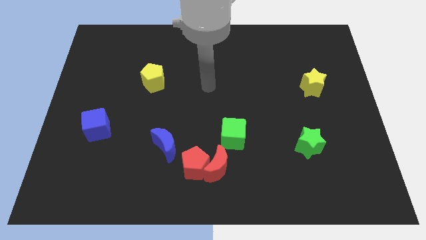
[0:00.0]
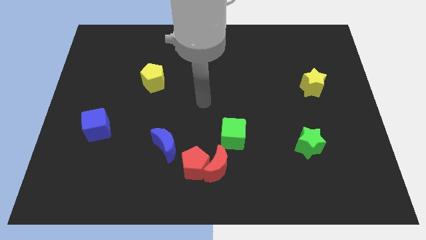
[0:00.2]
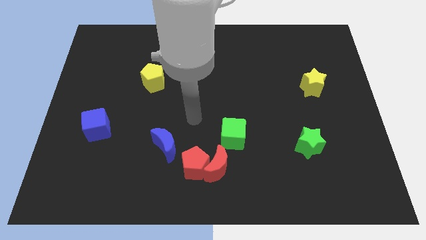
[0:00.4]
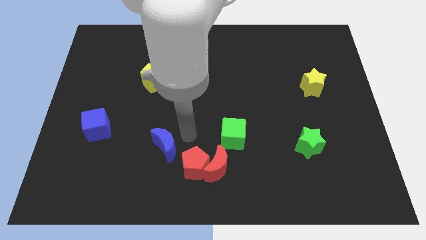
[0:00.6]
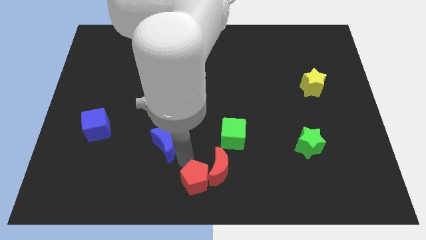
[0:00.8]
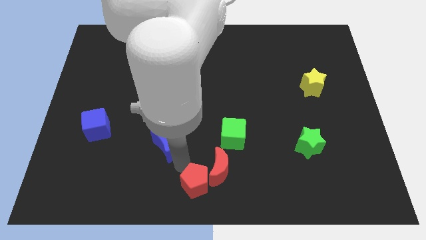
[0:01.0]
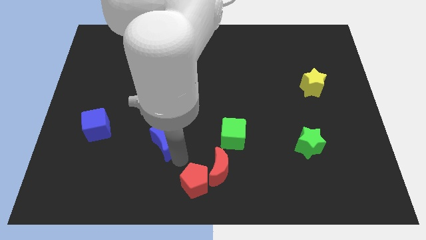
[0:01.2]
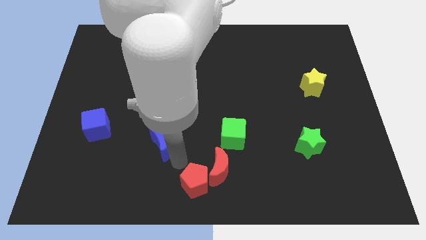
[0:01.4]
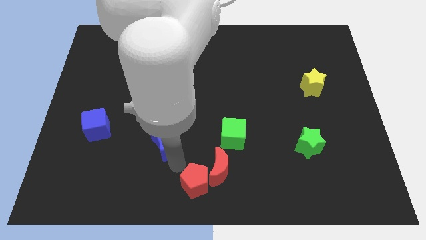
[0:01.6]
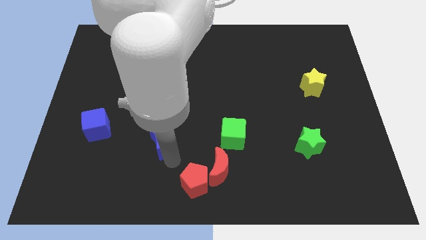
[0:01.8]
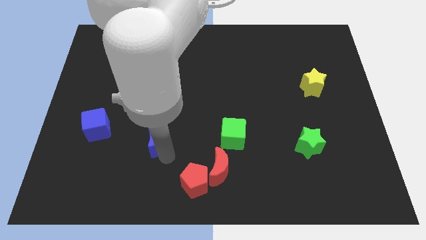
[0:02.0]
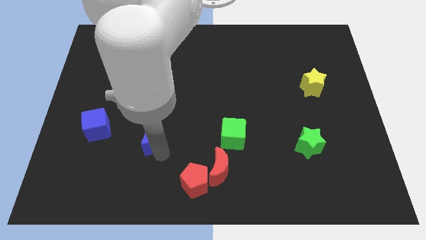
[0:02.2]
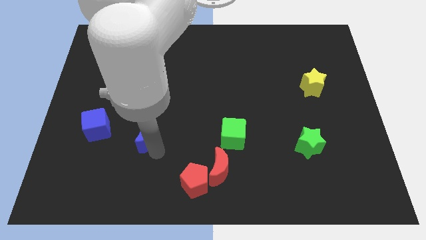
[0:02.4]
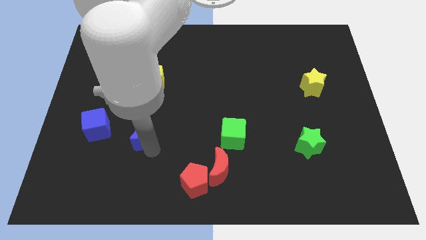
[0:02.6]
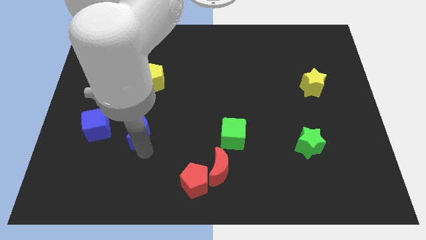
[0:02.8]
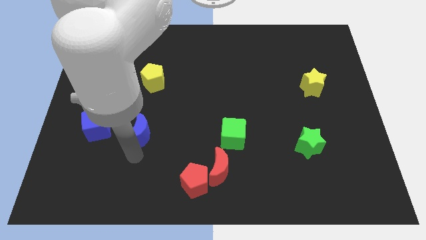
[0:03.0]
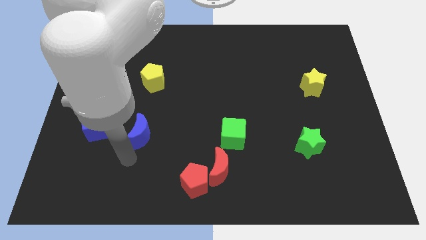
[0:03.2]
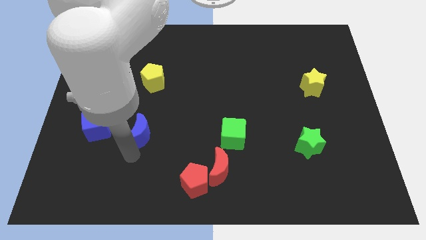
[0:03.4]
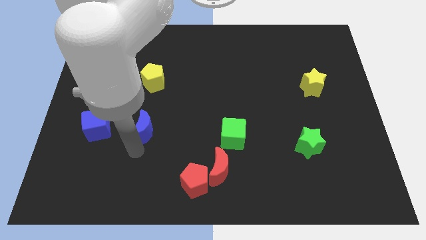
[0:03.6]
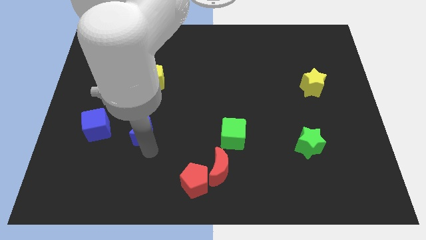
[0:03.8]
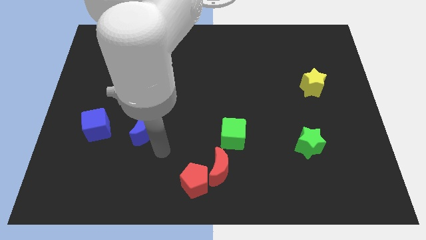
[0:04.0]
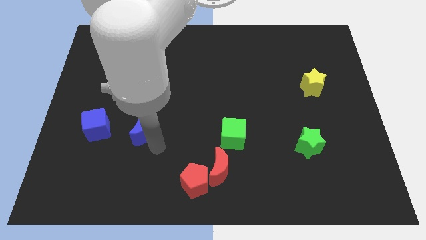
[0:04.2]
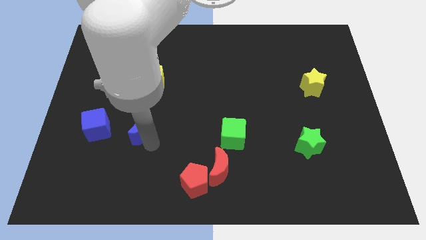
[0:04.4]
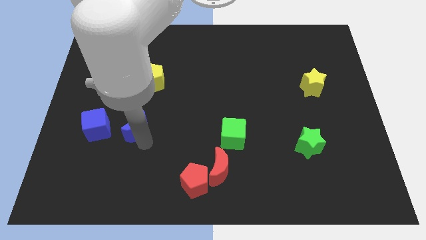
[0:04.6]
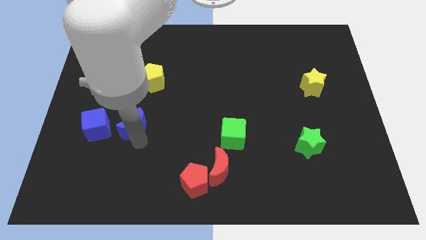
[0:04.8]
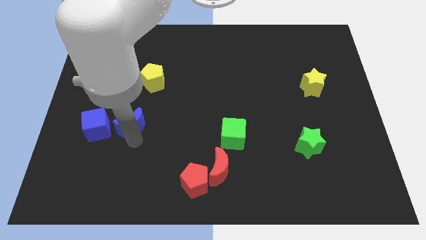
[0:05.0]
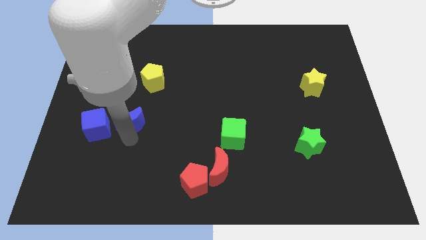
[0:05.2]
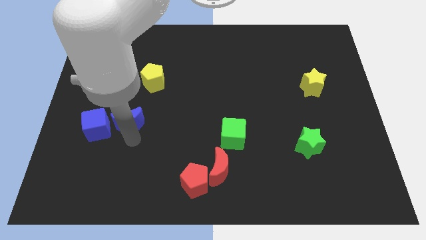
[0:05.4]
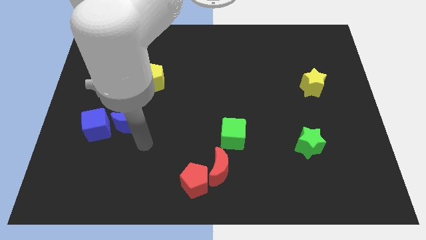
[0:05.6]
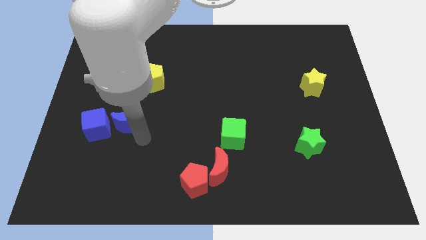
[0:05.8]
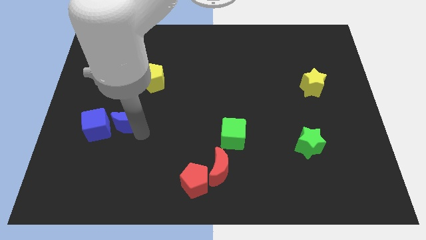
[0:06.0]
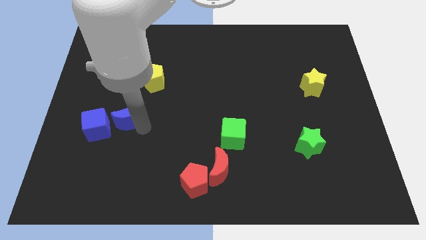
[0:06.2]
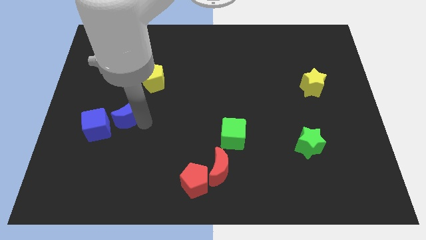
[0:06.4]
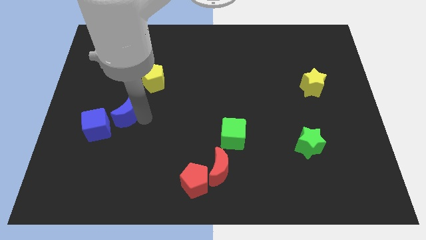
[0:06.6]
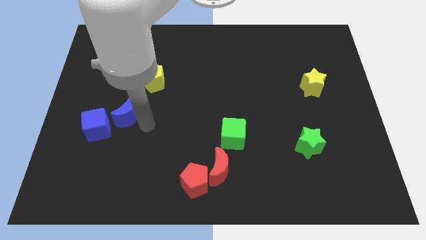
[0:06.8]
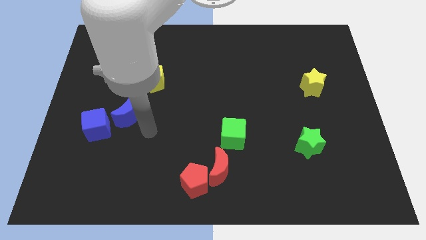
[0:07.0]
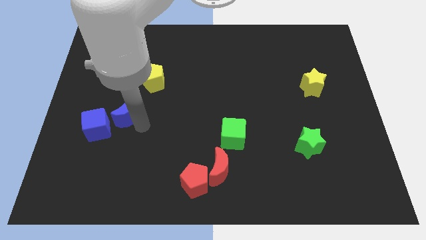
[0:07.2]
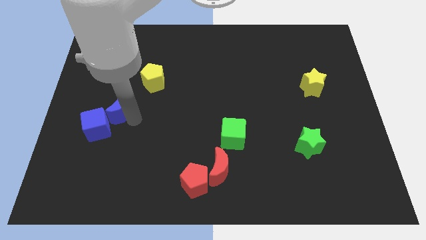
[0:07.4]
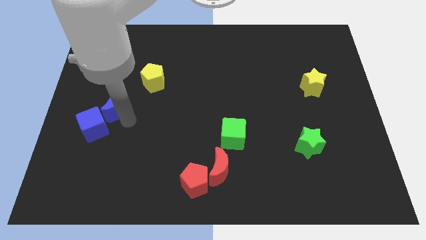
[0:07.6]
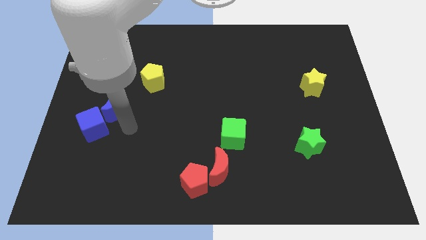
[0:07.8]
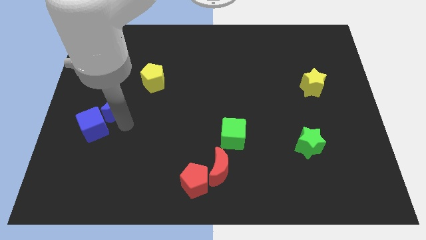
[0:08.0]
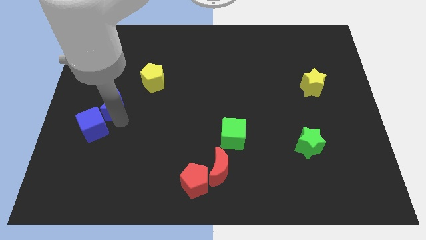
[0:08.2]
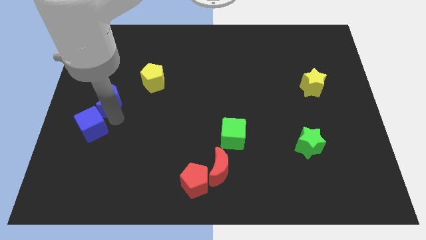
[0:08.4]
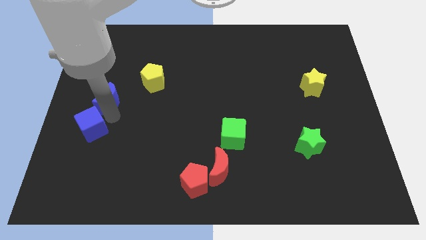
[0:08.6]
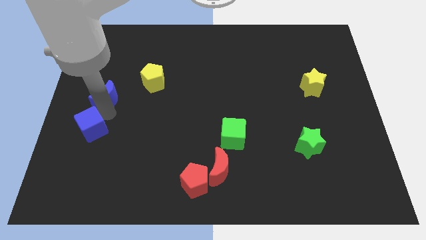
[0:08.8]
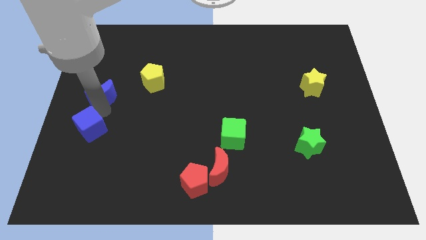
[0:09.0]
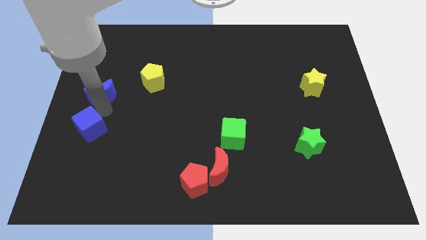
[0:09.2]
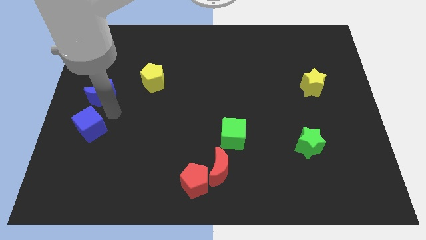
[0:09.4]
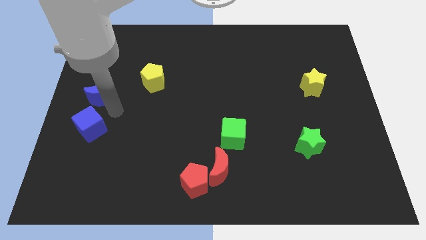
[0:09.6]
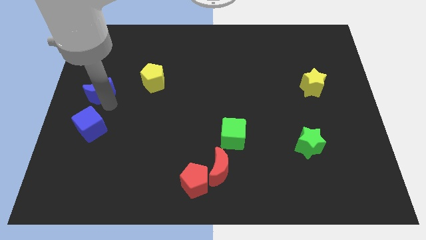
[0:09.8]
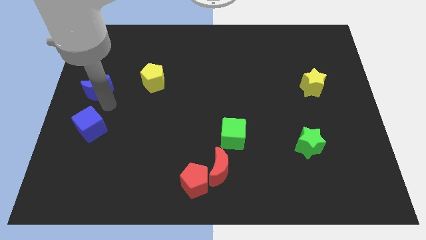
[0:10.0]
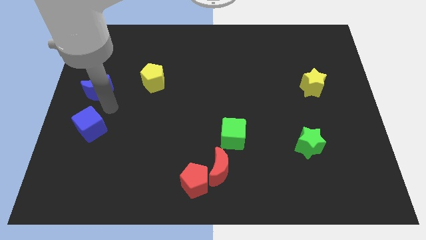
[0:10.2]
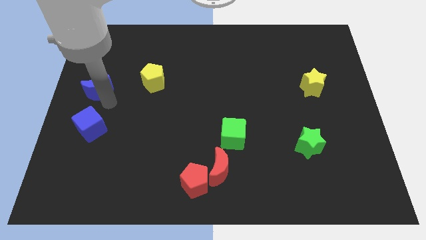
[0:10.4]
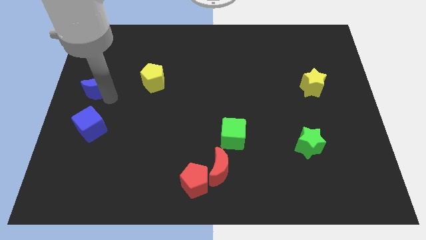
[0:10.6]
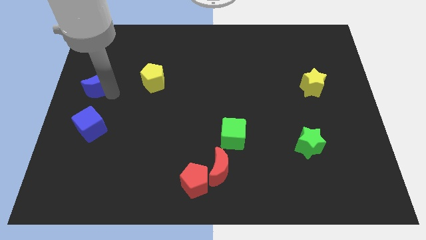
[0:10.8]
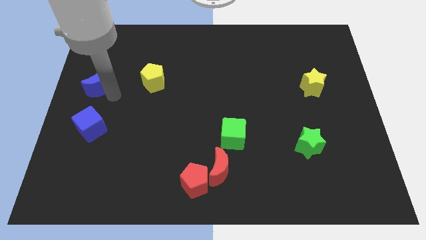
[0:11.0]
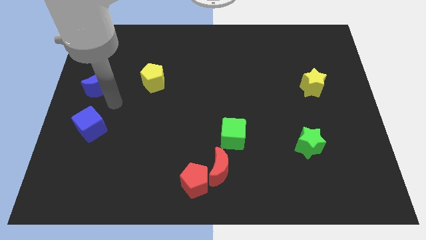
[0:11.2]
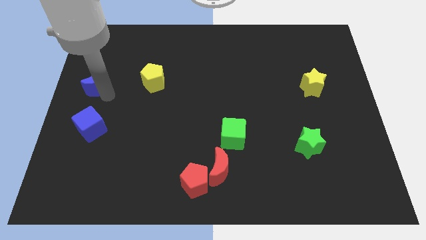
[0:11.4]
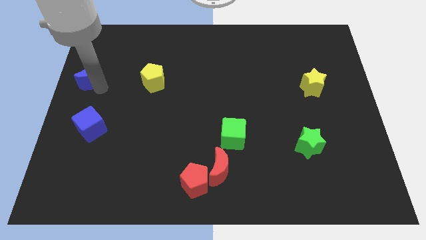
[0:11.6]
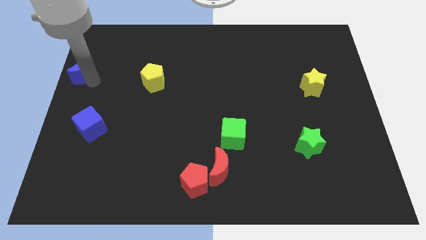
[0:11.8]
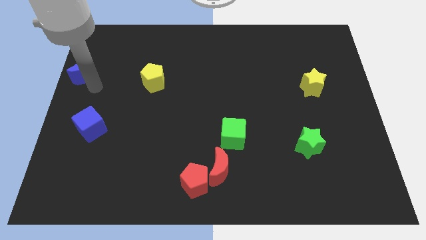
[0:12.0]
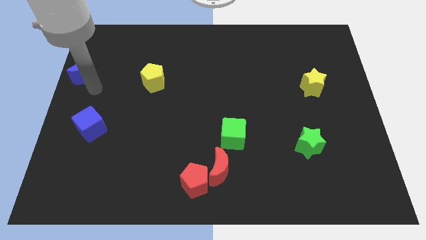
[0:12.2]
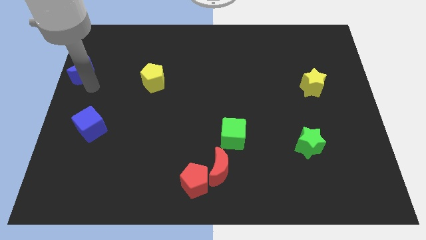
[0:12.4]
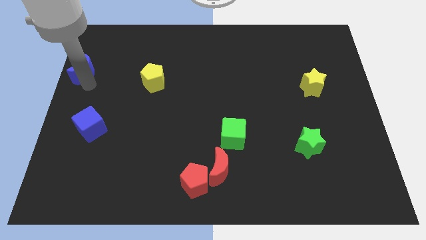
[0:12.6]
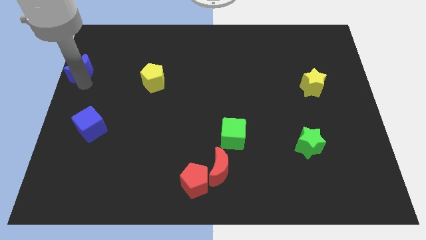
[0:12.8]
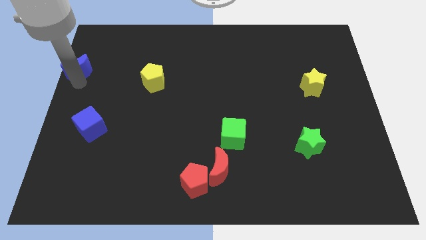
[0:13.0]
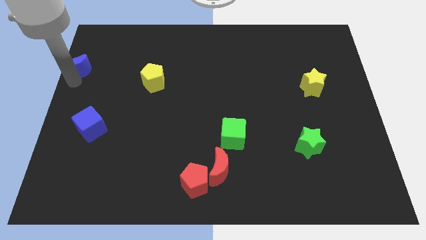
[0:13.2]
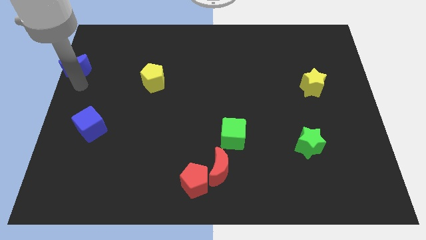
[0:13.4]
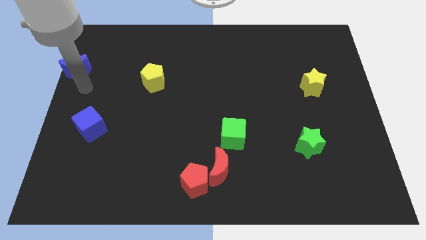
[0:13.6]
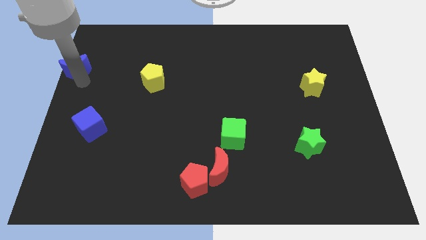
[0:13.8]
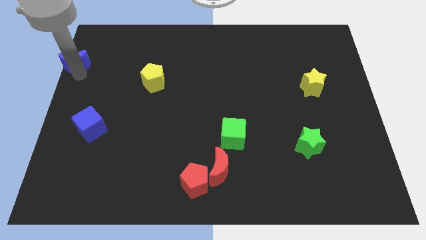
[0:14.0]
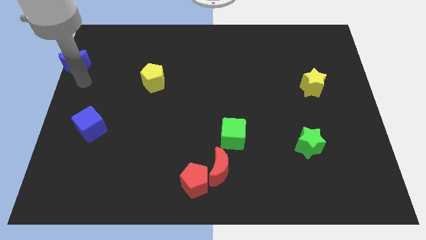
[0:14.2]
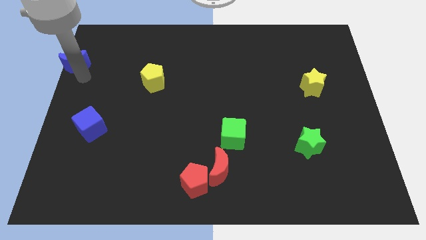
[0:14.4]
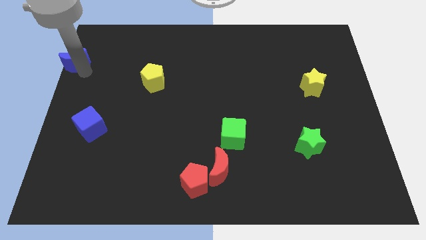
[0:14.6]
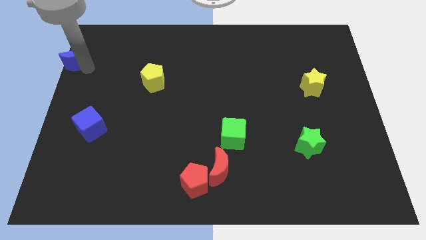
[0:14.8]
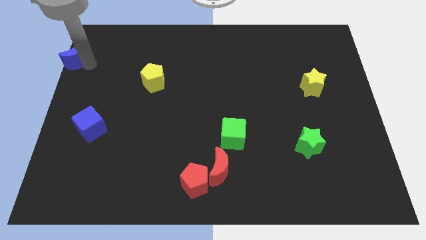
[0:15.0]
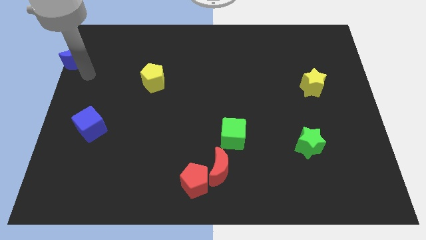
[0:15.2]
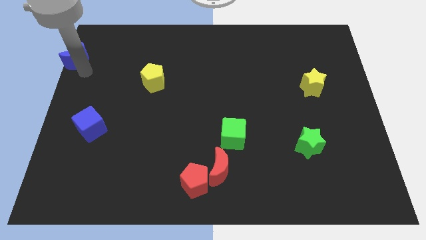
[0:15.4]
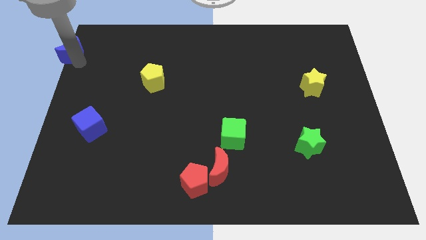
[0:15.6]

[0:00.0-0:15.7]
put the blue moon to the upper left corner
